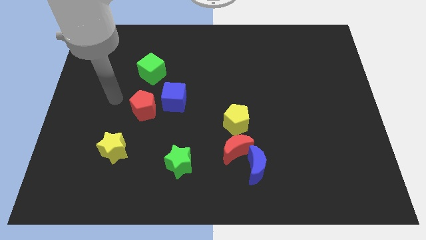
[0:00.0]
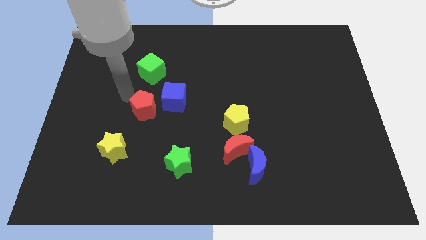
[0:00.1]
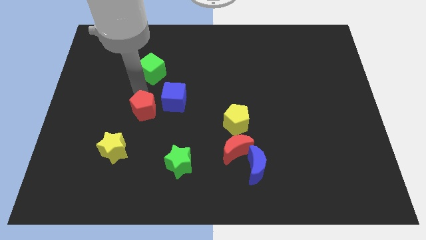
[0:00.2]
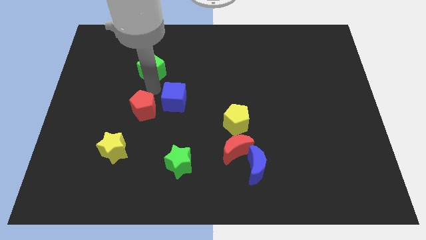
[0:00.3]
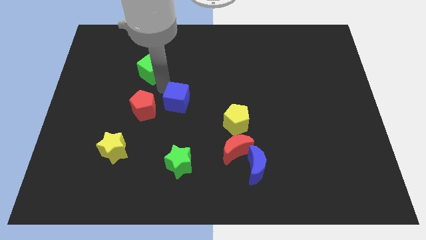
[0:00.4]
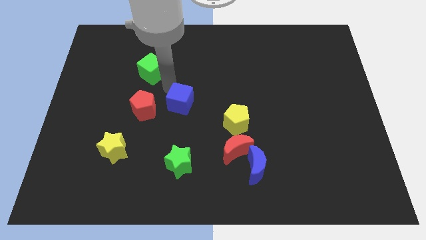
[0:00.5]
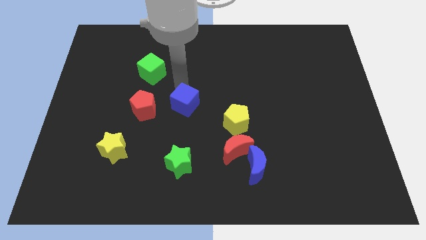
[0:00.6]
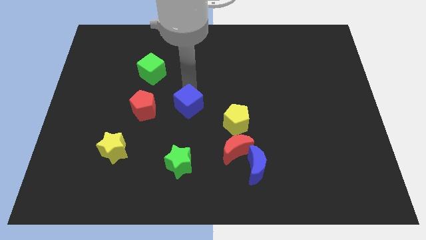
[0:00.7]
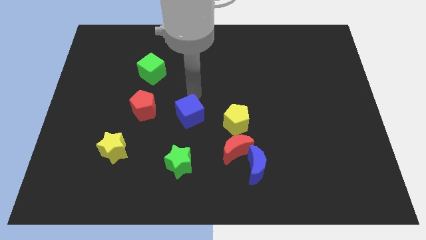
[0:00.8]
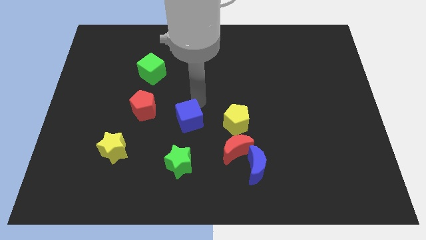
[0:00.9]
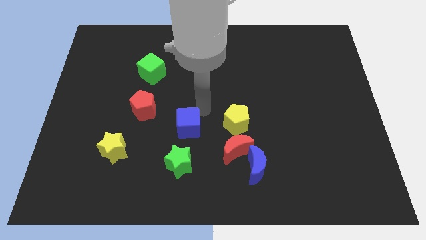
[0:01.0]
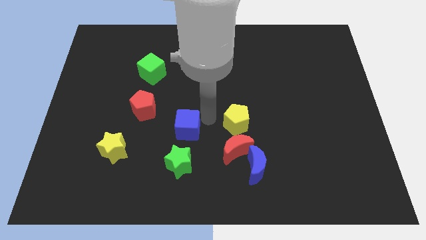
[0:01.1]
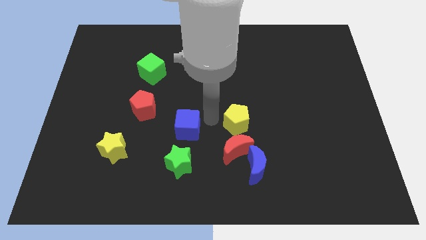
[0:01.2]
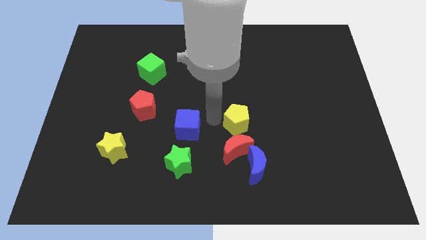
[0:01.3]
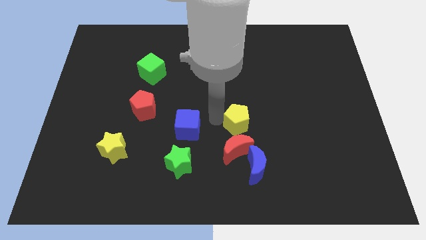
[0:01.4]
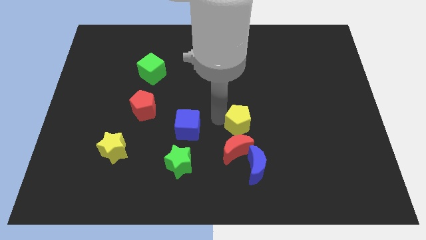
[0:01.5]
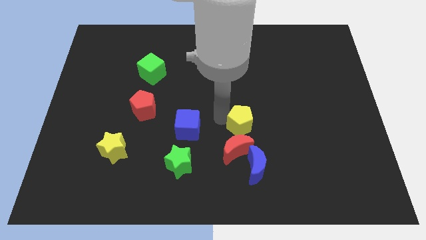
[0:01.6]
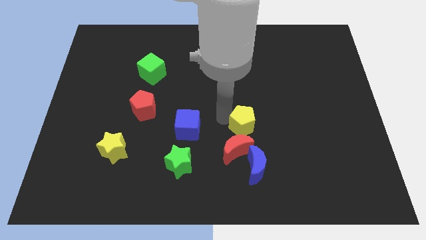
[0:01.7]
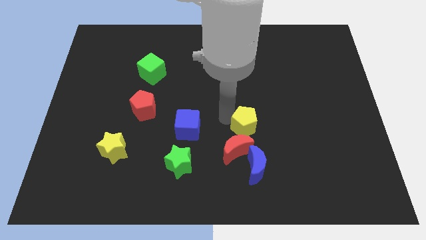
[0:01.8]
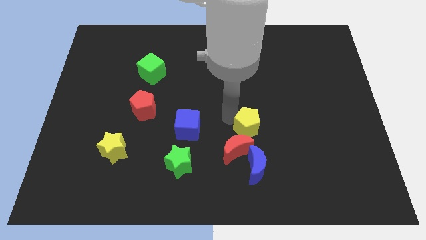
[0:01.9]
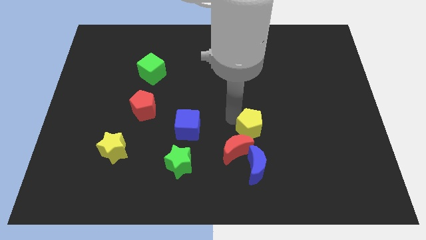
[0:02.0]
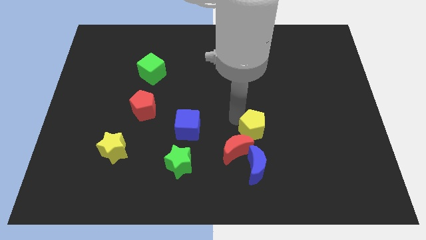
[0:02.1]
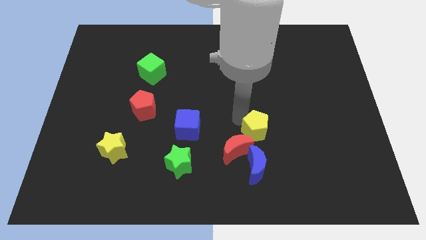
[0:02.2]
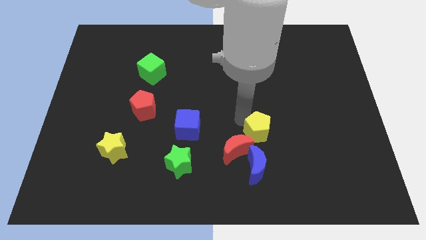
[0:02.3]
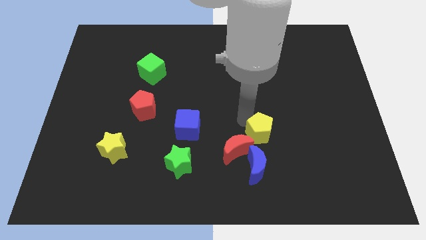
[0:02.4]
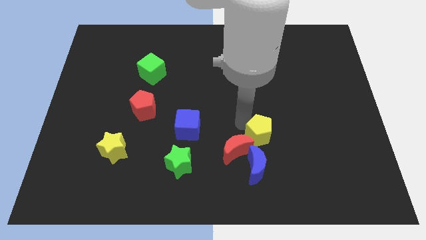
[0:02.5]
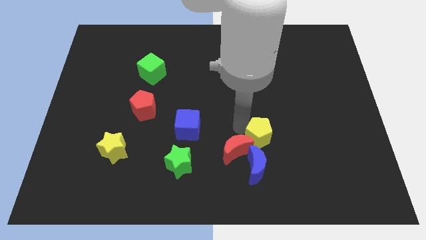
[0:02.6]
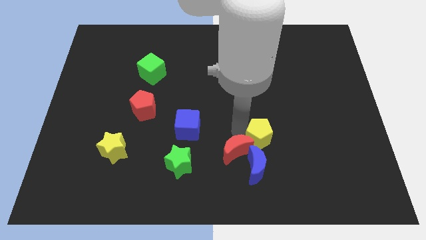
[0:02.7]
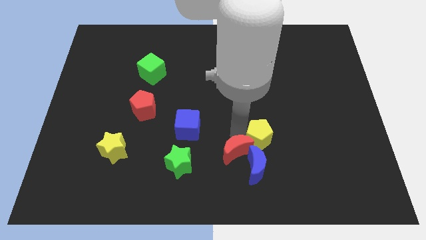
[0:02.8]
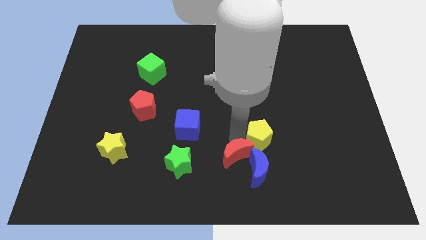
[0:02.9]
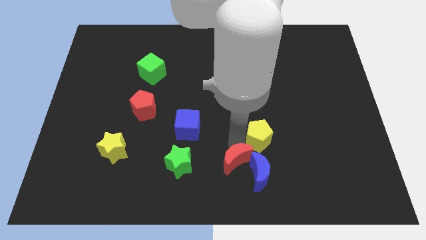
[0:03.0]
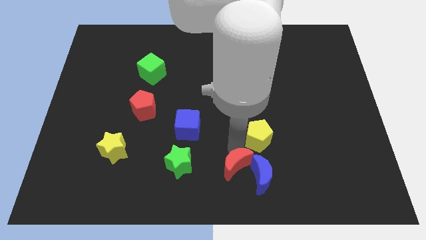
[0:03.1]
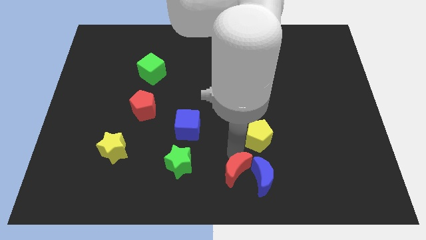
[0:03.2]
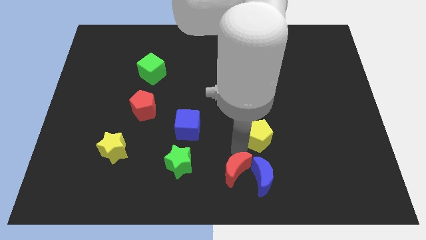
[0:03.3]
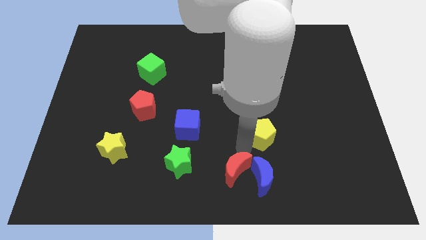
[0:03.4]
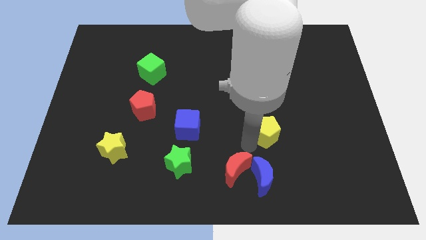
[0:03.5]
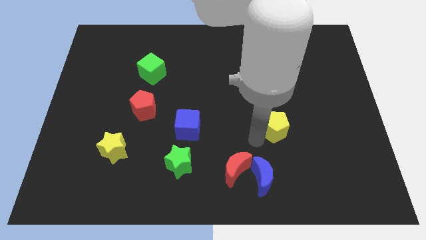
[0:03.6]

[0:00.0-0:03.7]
push the yellow pentagon to the right a little bit

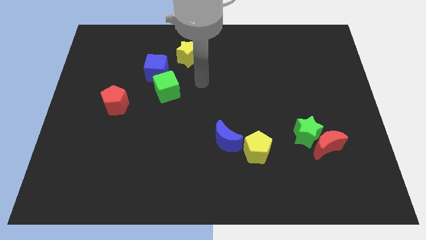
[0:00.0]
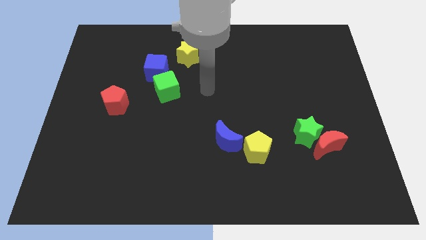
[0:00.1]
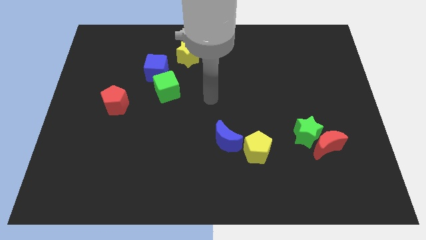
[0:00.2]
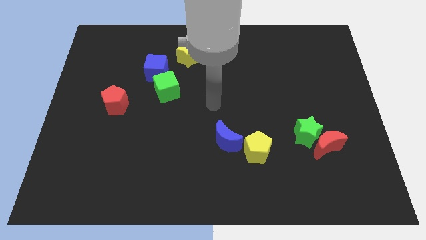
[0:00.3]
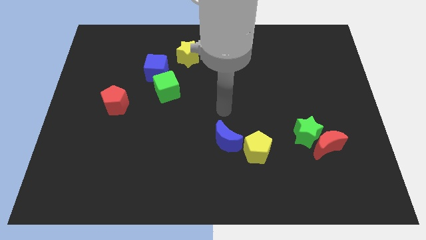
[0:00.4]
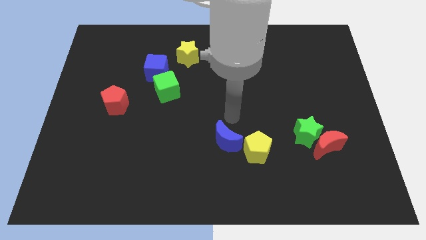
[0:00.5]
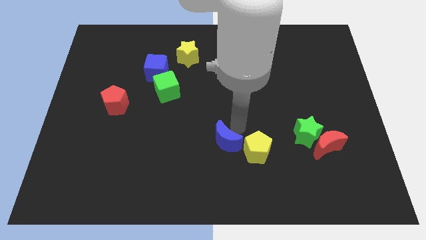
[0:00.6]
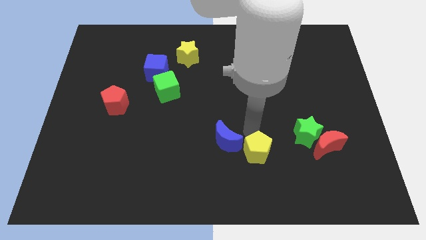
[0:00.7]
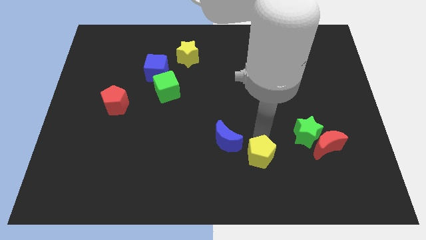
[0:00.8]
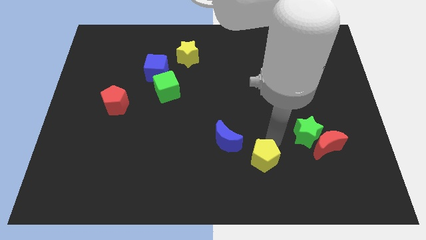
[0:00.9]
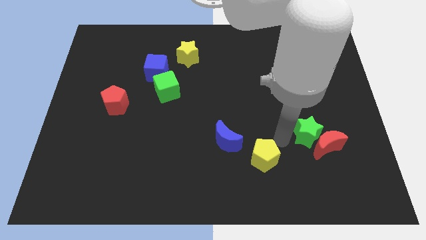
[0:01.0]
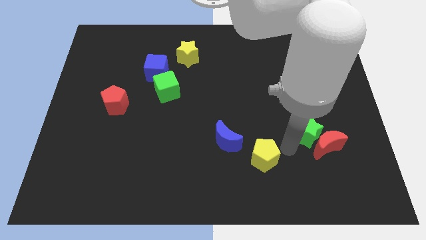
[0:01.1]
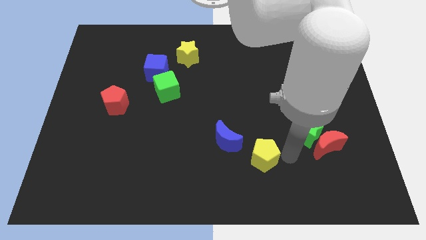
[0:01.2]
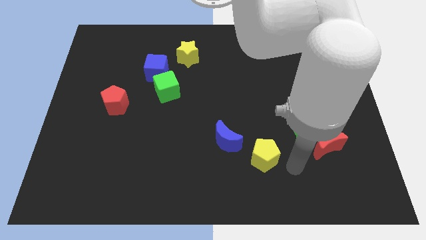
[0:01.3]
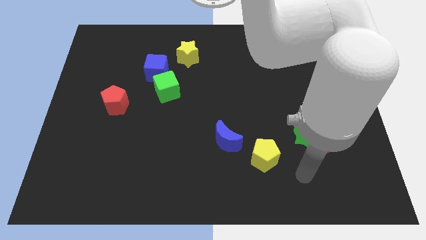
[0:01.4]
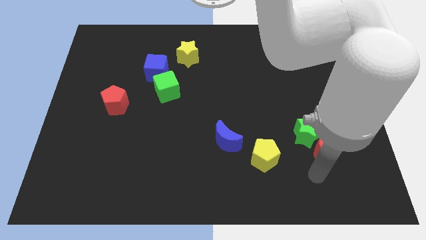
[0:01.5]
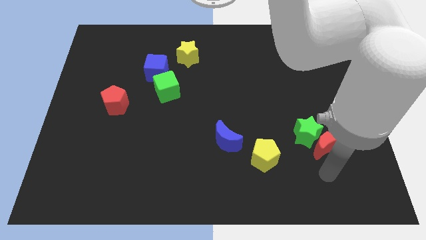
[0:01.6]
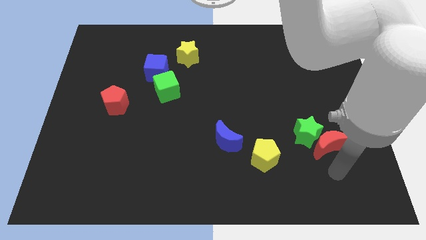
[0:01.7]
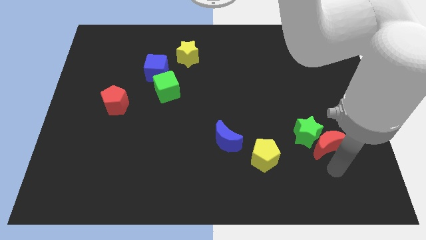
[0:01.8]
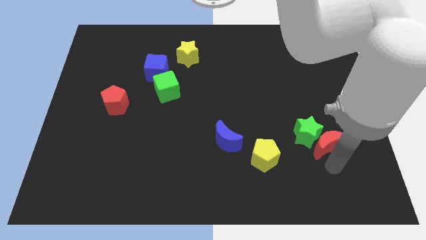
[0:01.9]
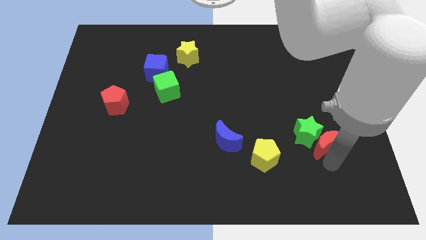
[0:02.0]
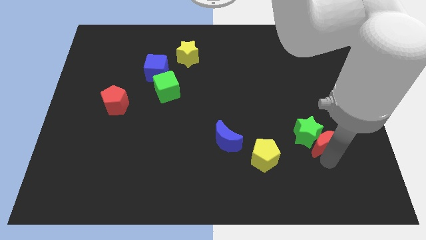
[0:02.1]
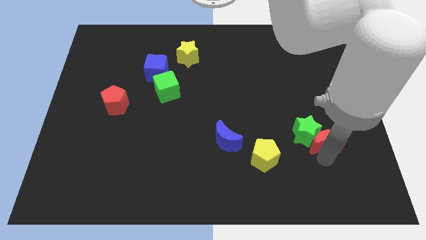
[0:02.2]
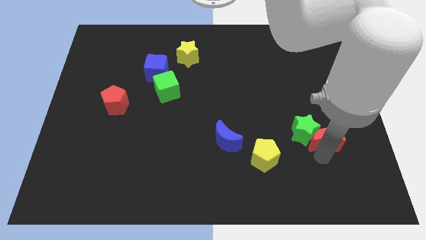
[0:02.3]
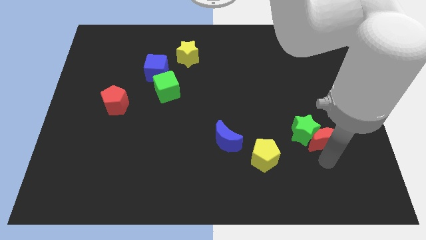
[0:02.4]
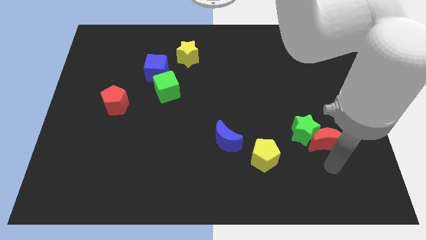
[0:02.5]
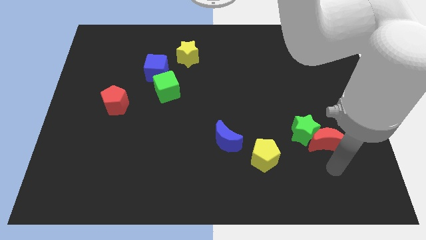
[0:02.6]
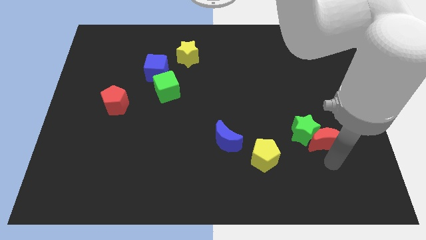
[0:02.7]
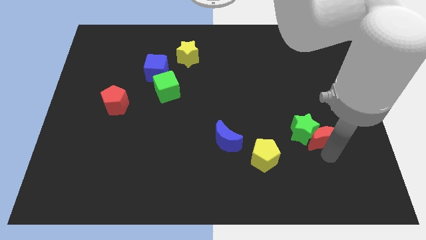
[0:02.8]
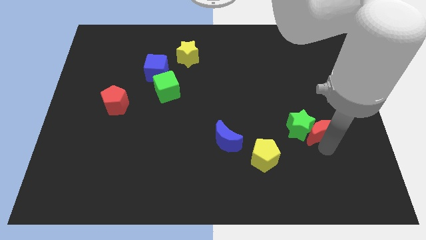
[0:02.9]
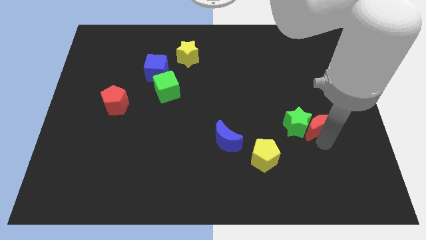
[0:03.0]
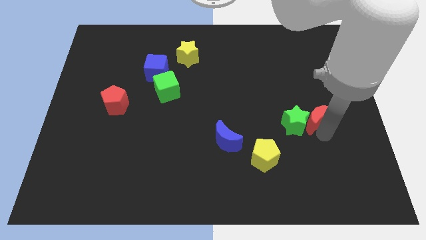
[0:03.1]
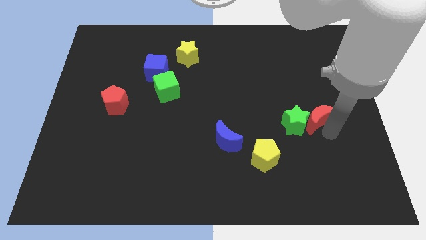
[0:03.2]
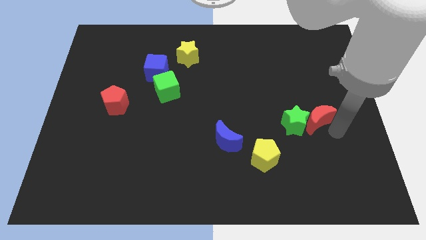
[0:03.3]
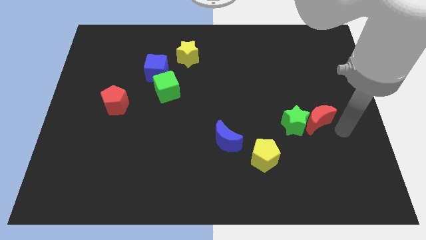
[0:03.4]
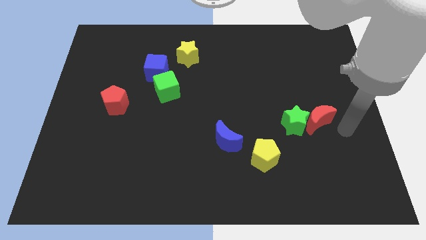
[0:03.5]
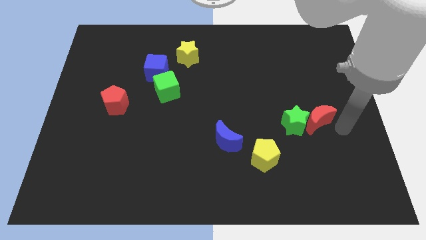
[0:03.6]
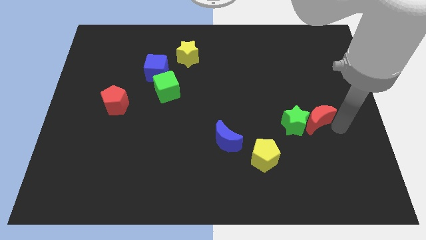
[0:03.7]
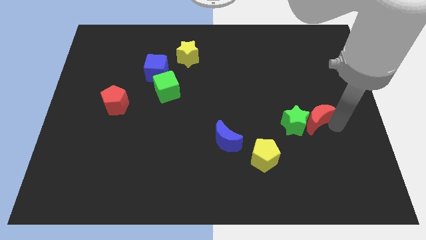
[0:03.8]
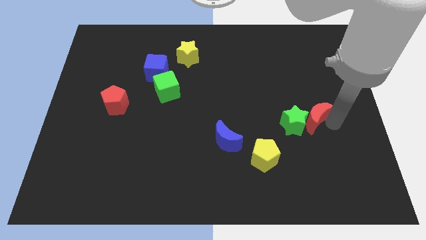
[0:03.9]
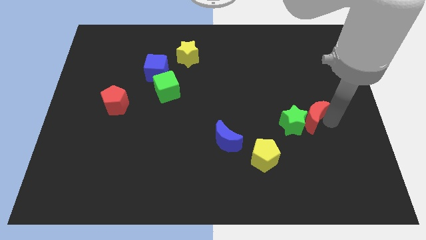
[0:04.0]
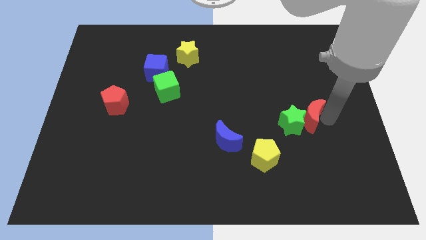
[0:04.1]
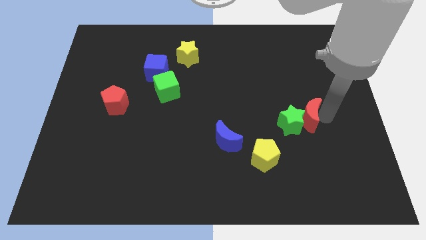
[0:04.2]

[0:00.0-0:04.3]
move the red moon up and then to the left a little
